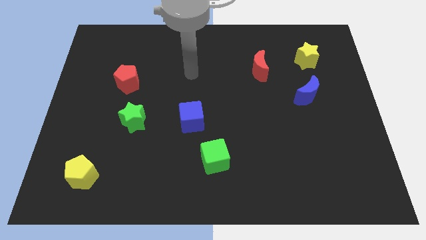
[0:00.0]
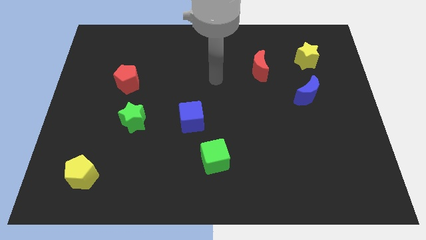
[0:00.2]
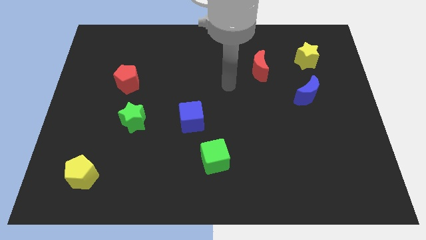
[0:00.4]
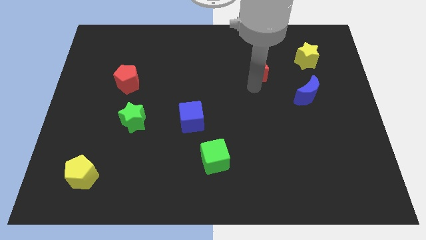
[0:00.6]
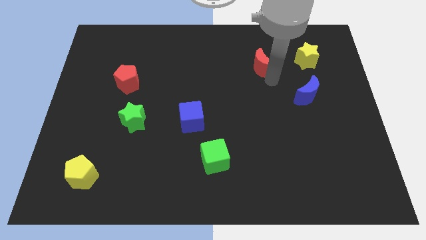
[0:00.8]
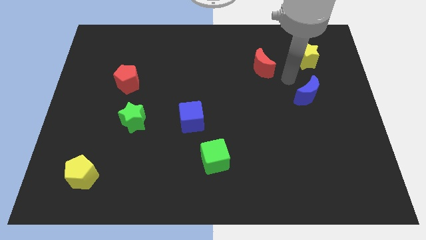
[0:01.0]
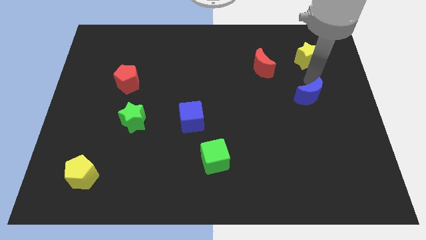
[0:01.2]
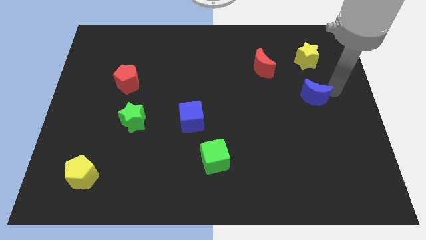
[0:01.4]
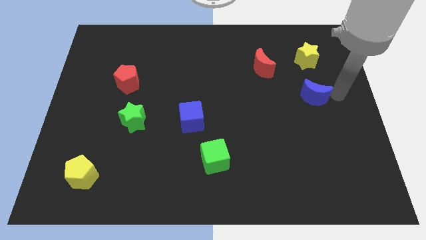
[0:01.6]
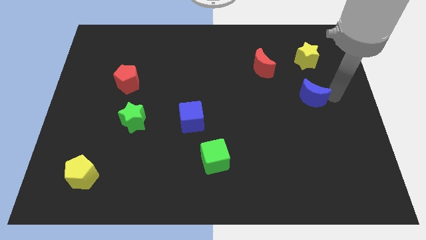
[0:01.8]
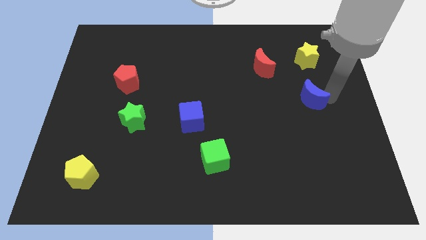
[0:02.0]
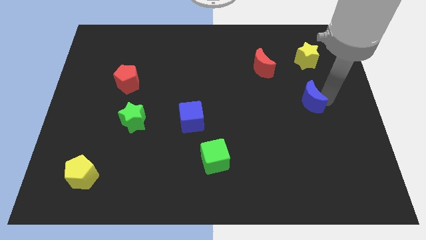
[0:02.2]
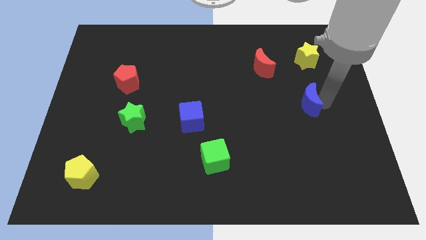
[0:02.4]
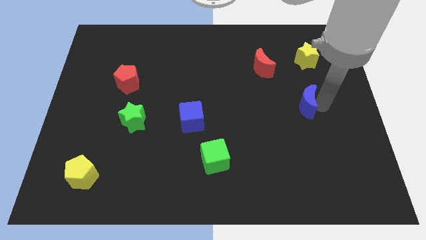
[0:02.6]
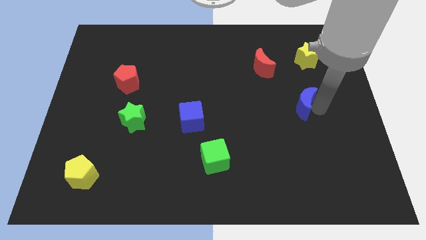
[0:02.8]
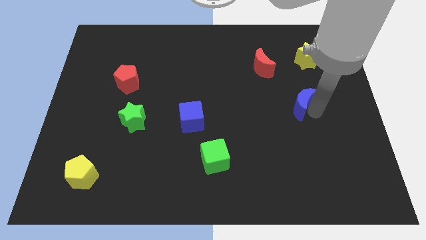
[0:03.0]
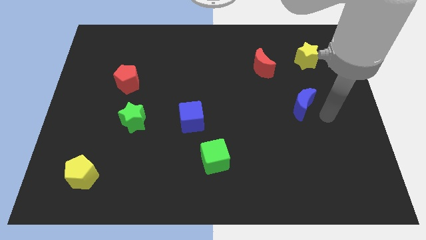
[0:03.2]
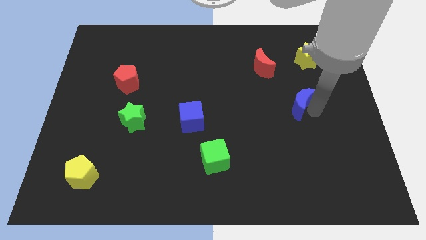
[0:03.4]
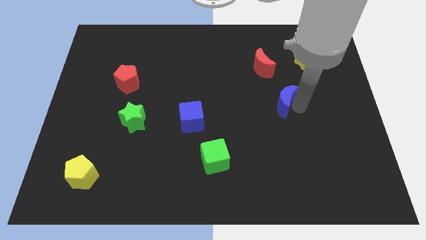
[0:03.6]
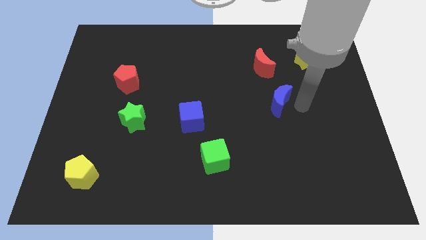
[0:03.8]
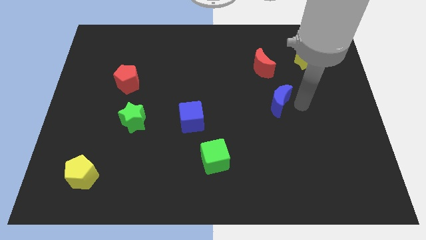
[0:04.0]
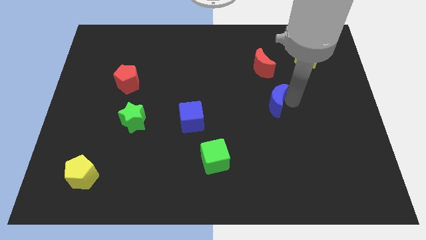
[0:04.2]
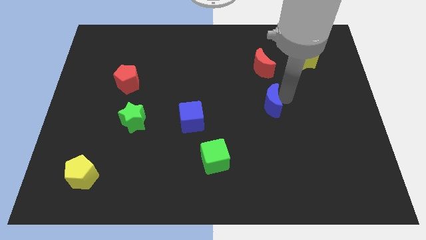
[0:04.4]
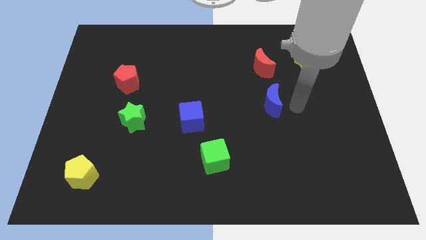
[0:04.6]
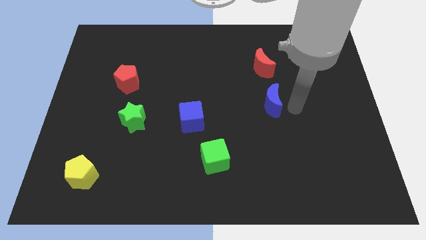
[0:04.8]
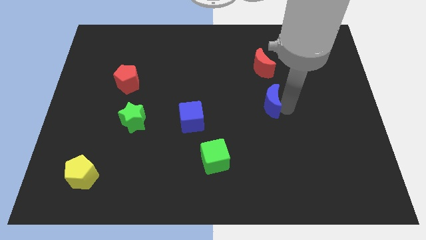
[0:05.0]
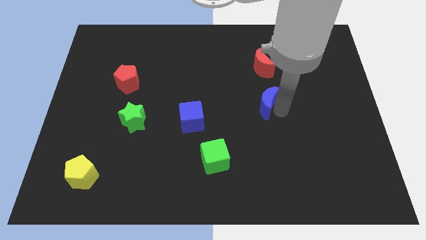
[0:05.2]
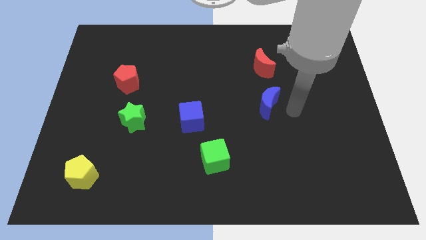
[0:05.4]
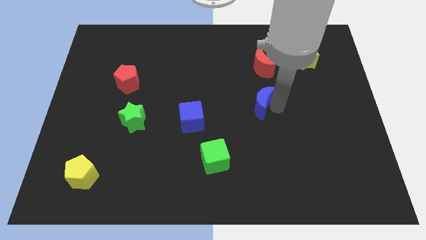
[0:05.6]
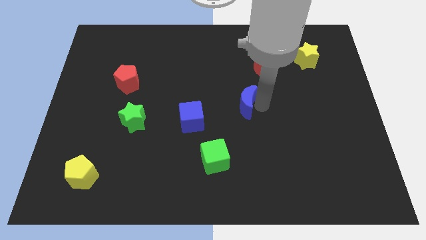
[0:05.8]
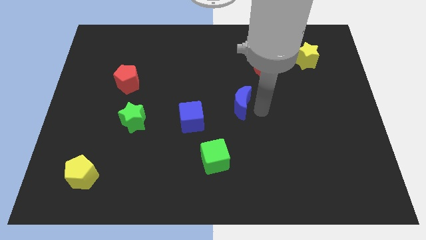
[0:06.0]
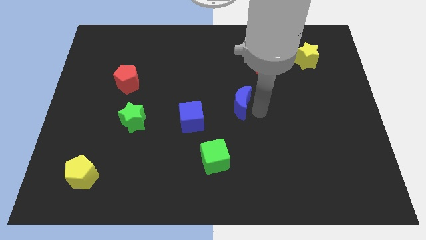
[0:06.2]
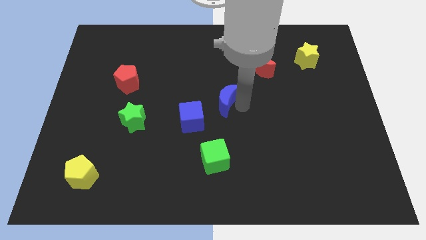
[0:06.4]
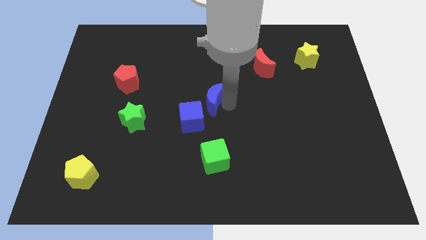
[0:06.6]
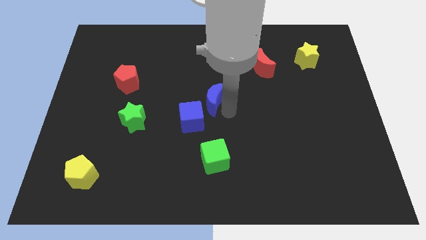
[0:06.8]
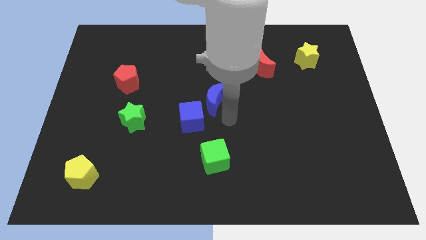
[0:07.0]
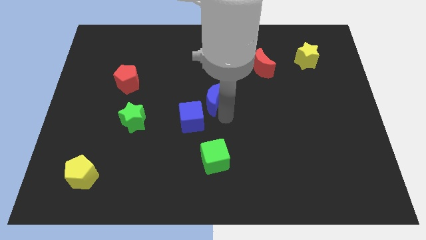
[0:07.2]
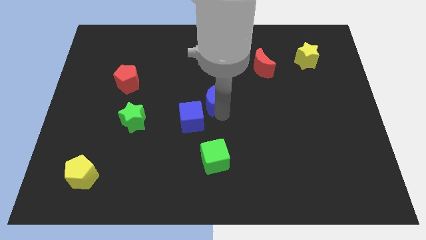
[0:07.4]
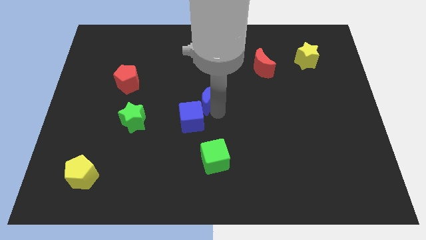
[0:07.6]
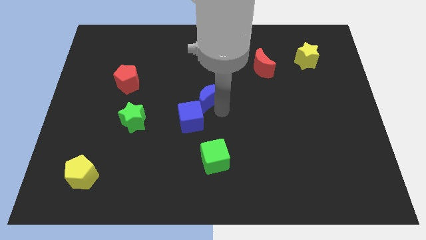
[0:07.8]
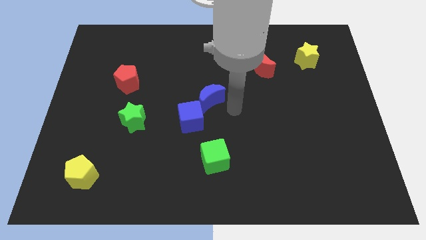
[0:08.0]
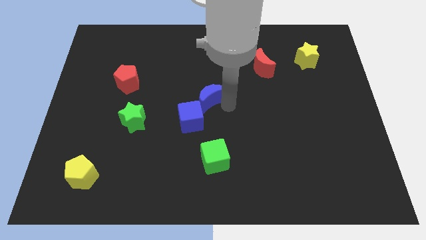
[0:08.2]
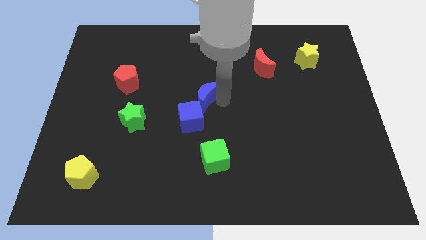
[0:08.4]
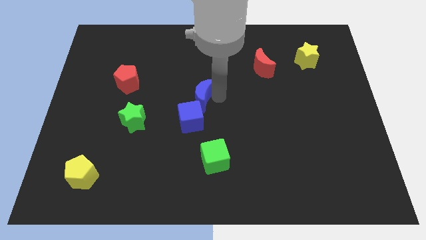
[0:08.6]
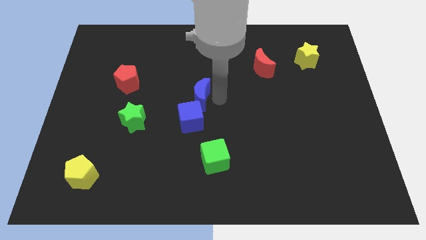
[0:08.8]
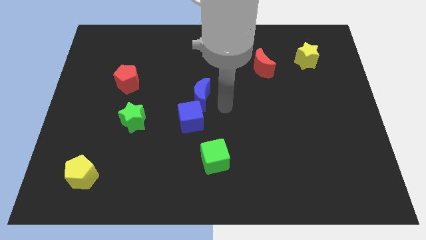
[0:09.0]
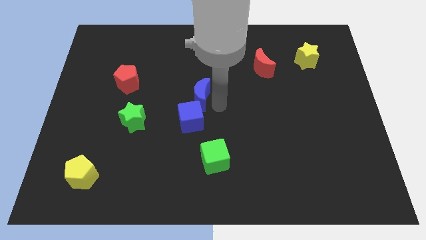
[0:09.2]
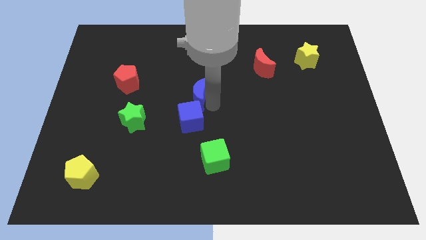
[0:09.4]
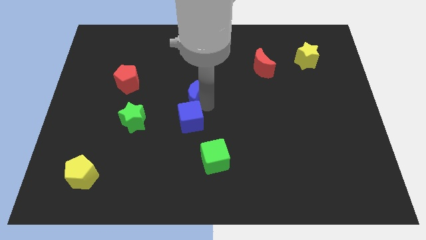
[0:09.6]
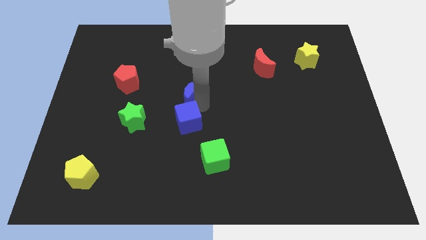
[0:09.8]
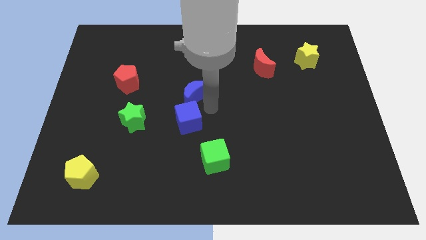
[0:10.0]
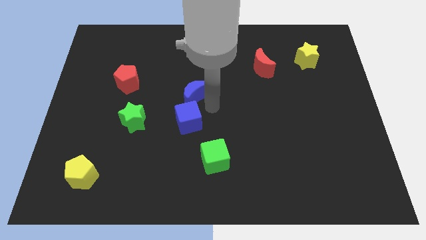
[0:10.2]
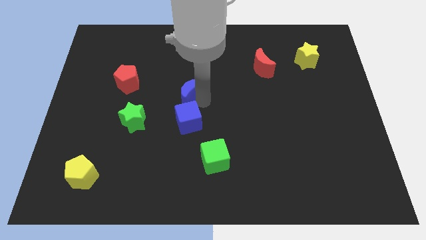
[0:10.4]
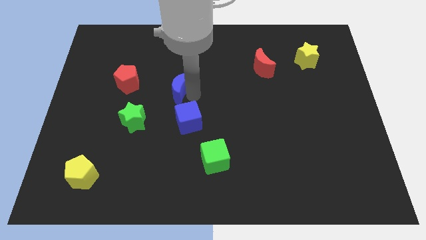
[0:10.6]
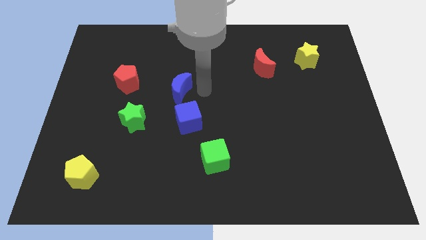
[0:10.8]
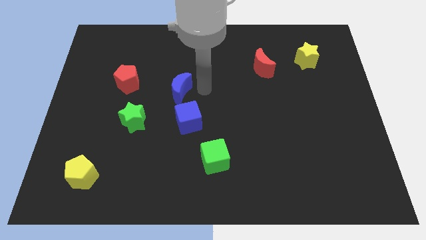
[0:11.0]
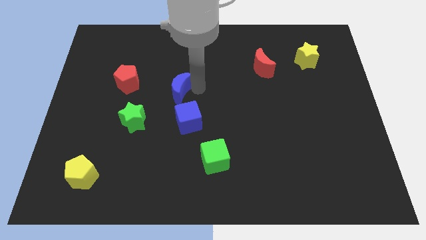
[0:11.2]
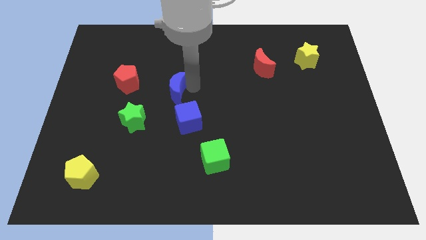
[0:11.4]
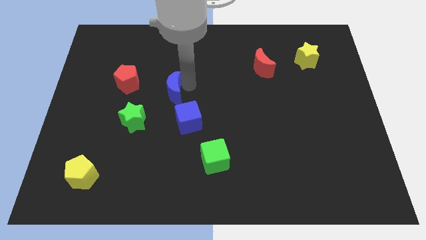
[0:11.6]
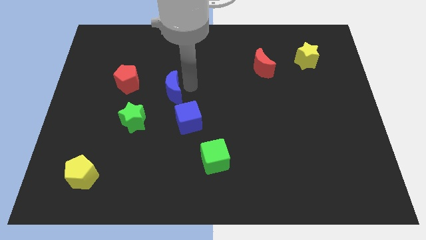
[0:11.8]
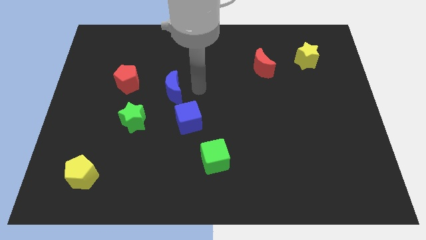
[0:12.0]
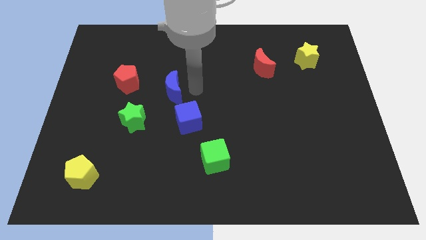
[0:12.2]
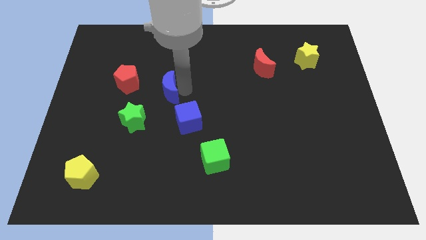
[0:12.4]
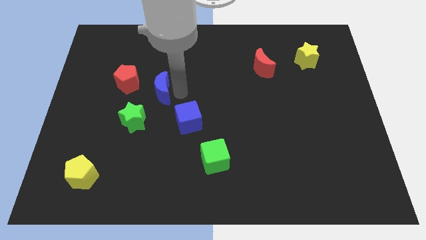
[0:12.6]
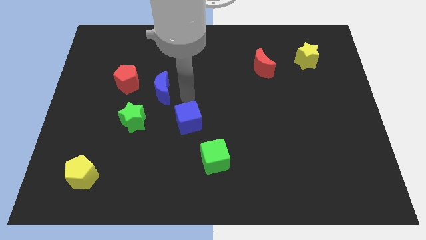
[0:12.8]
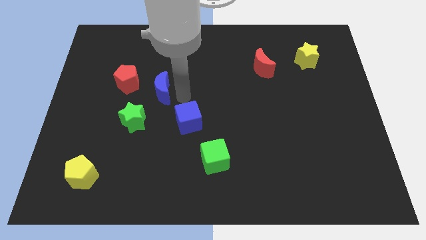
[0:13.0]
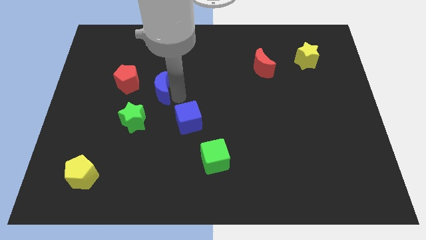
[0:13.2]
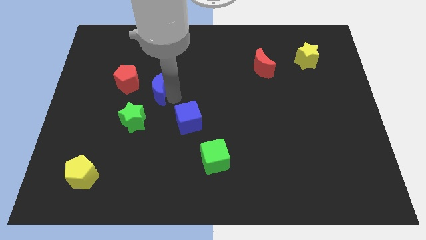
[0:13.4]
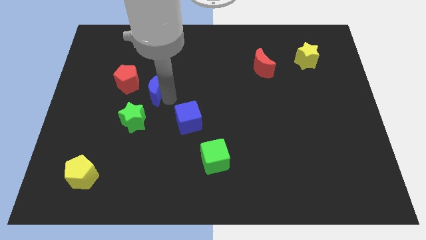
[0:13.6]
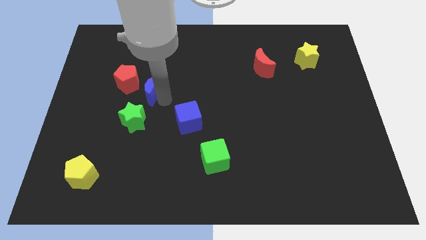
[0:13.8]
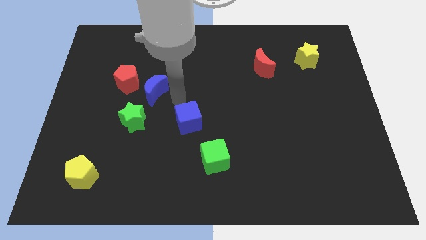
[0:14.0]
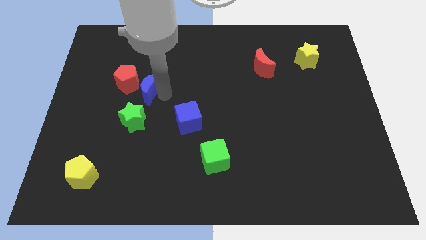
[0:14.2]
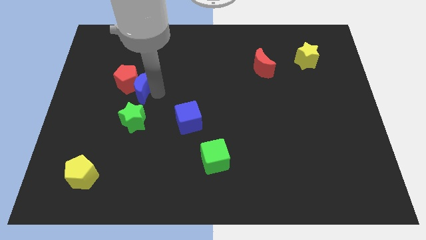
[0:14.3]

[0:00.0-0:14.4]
push the blue moon close to the red pentagon
